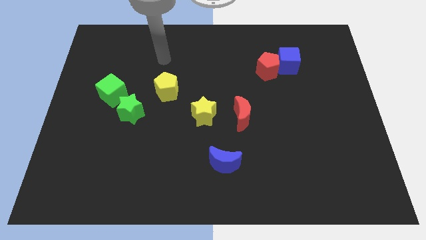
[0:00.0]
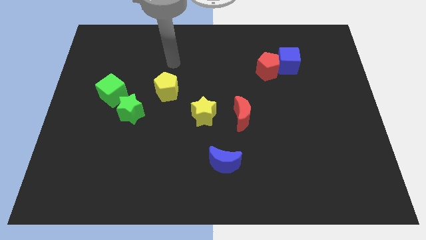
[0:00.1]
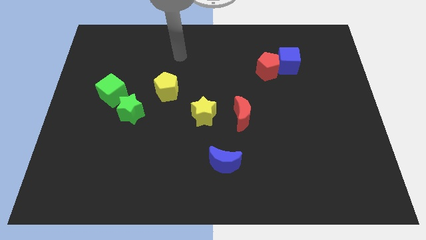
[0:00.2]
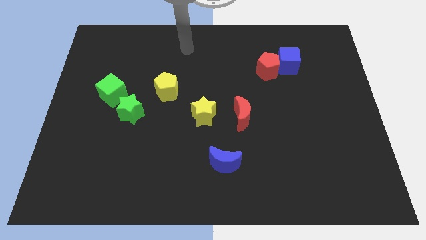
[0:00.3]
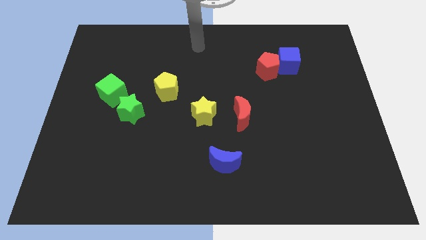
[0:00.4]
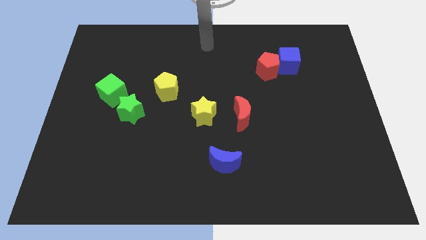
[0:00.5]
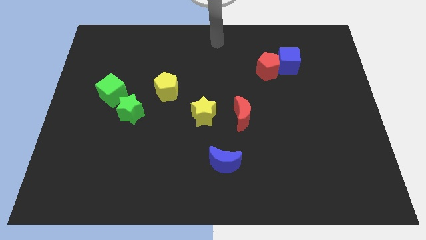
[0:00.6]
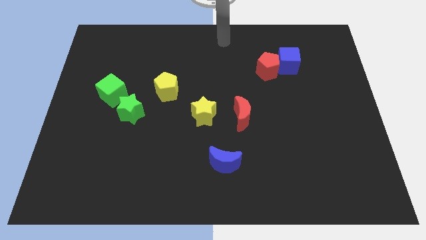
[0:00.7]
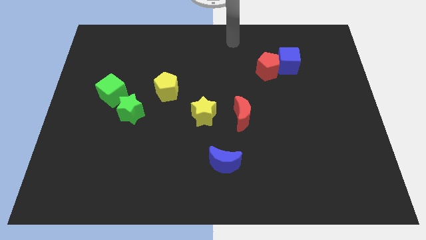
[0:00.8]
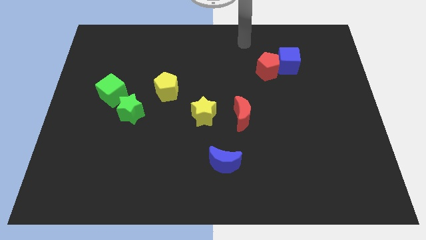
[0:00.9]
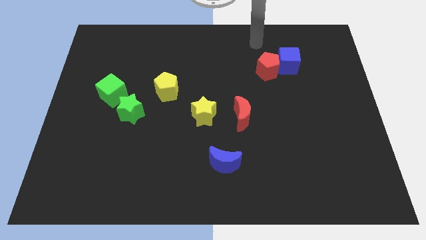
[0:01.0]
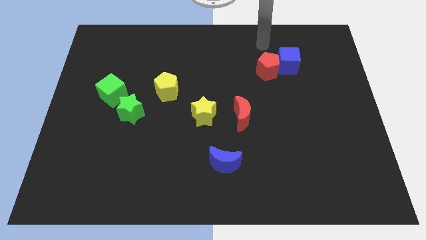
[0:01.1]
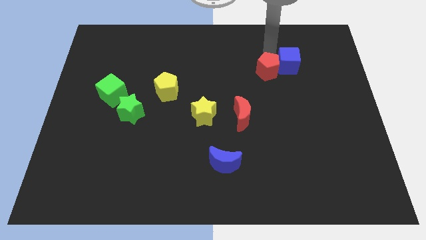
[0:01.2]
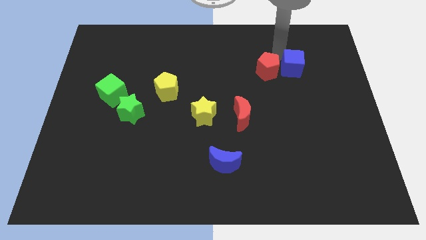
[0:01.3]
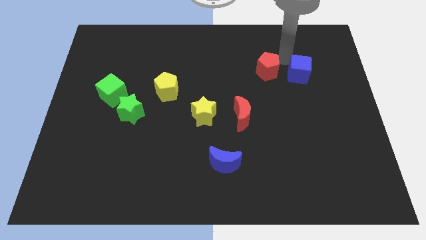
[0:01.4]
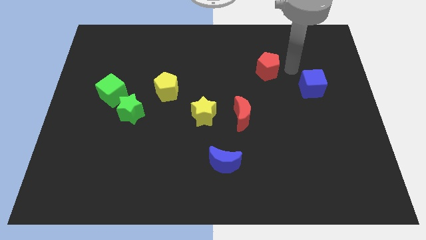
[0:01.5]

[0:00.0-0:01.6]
pull the red pentagon apart from the blue cube

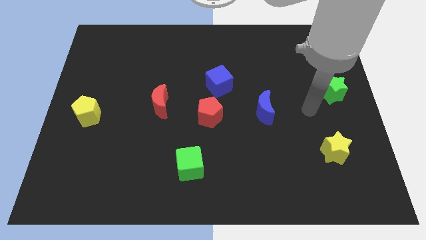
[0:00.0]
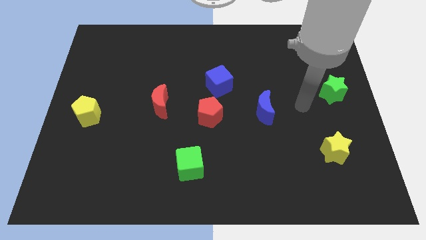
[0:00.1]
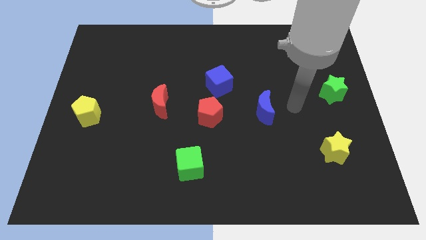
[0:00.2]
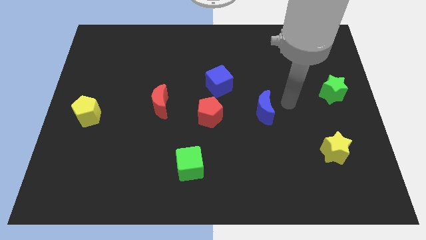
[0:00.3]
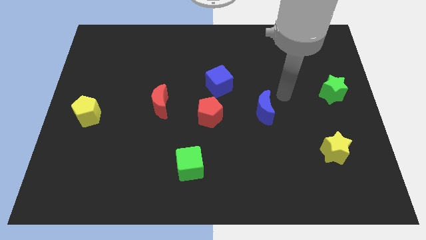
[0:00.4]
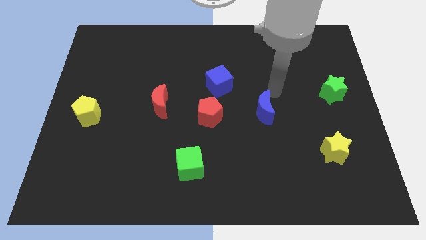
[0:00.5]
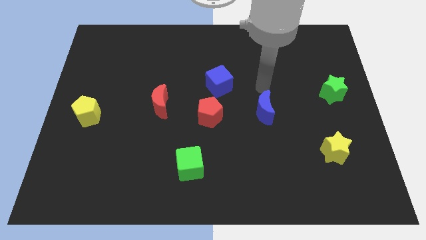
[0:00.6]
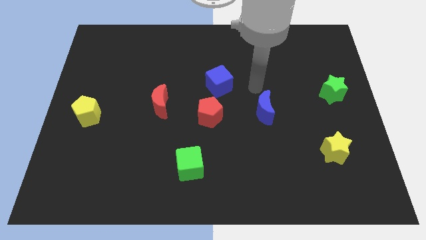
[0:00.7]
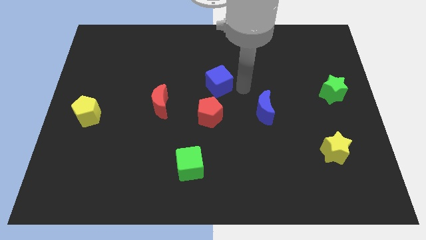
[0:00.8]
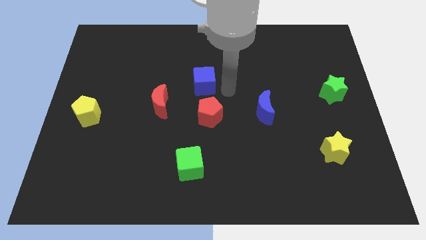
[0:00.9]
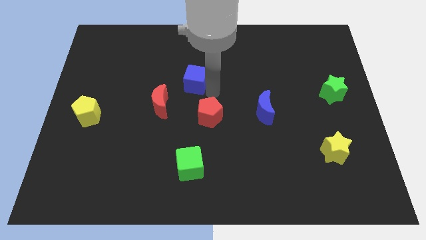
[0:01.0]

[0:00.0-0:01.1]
separate the red pentagon from the blue cube

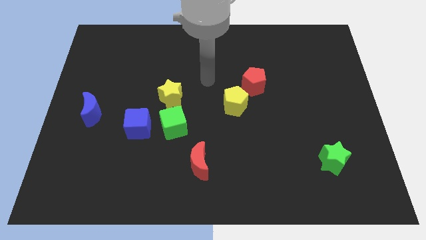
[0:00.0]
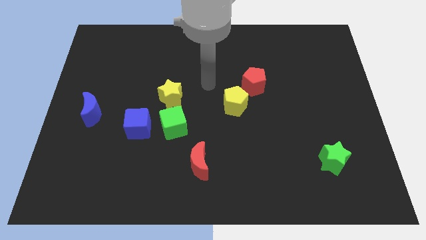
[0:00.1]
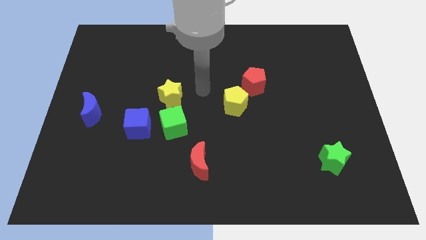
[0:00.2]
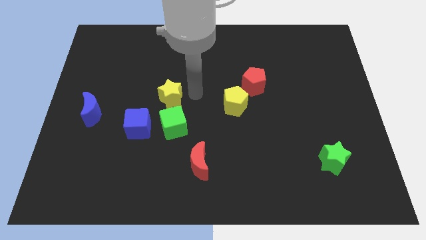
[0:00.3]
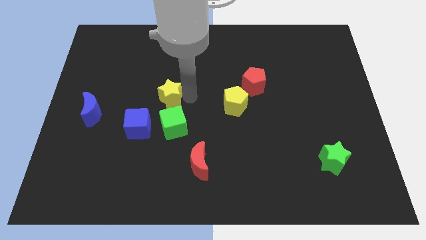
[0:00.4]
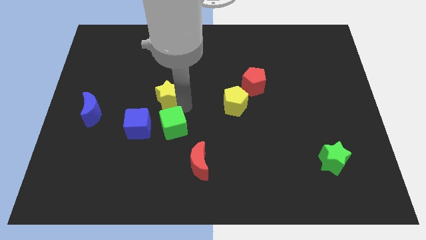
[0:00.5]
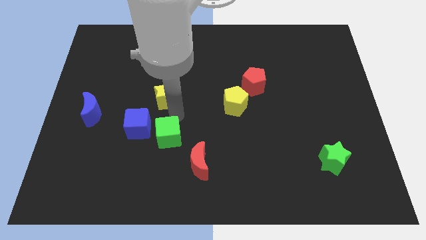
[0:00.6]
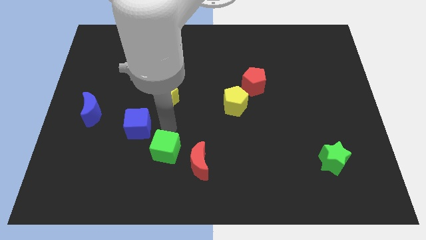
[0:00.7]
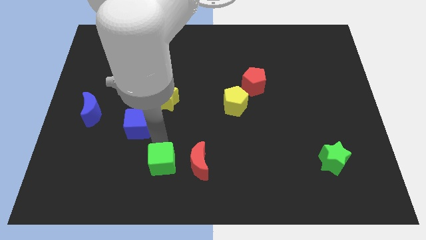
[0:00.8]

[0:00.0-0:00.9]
pull the blue cube apart from the green cube

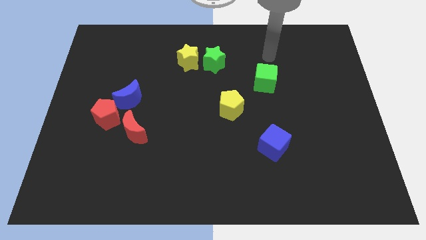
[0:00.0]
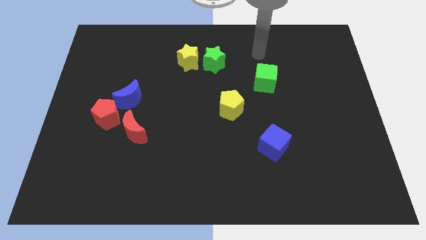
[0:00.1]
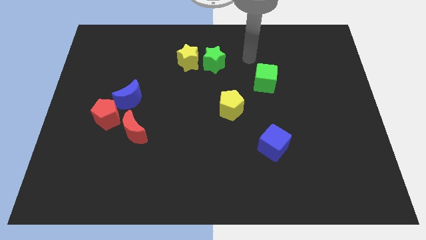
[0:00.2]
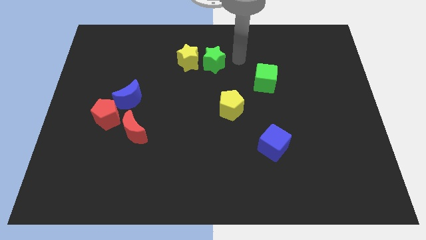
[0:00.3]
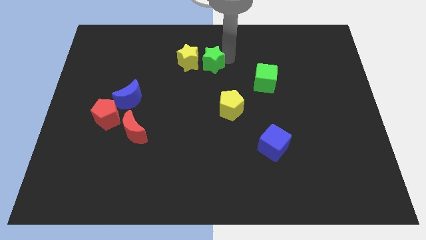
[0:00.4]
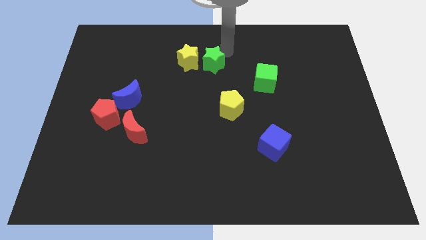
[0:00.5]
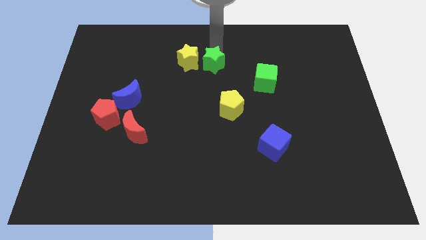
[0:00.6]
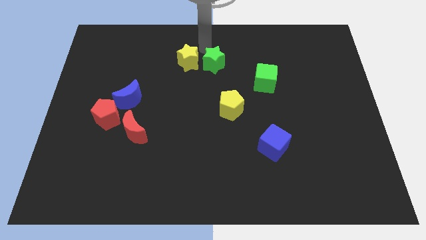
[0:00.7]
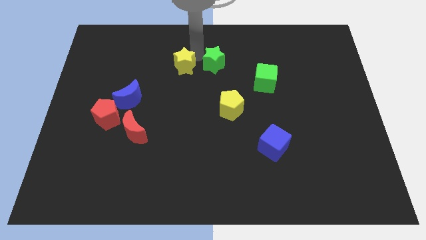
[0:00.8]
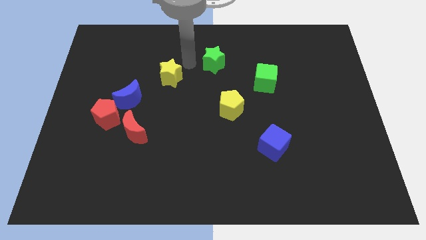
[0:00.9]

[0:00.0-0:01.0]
pull the green star apart from the yellow star

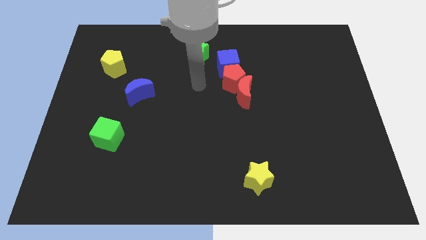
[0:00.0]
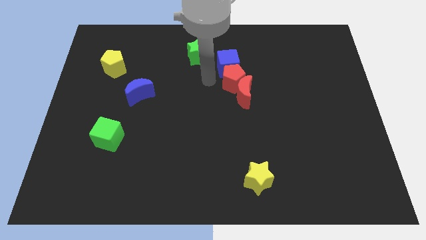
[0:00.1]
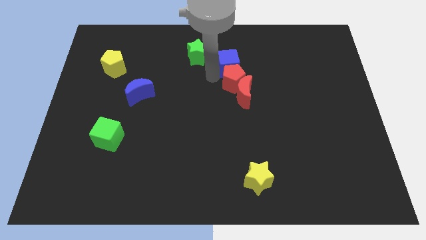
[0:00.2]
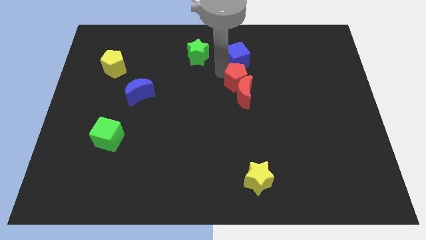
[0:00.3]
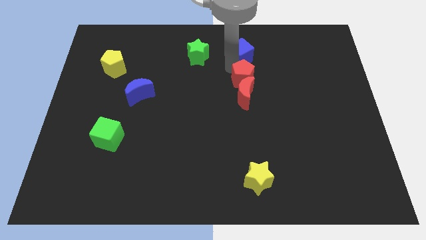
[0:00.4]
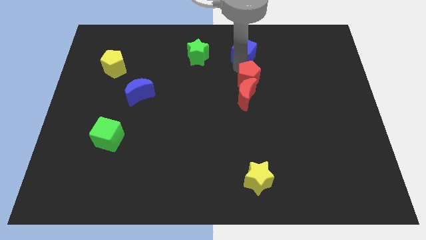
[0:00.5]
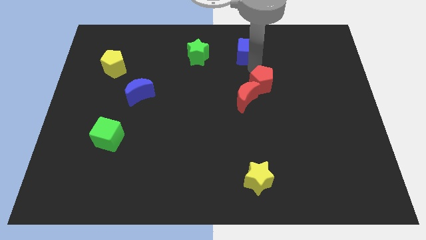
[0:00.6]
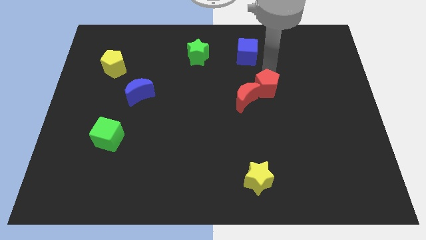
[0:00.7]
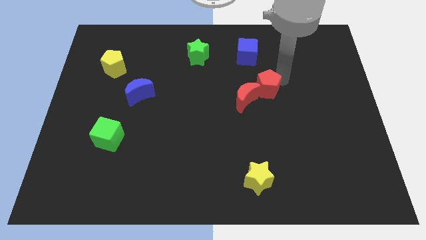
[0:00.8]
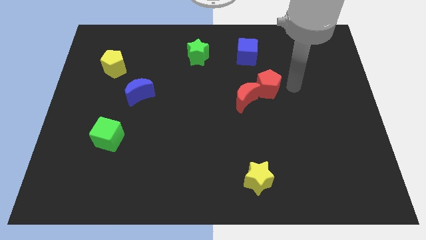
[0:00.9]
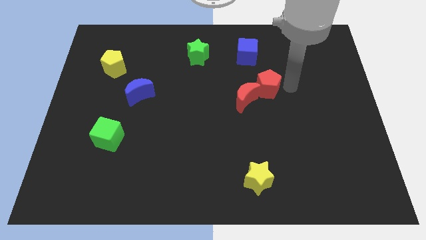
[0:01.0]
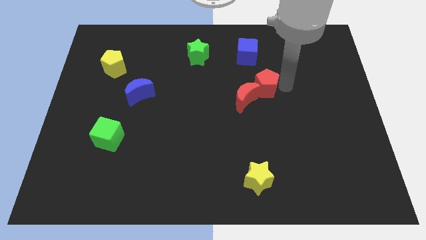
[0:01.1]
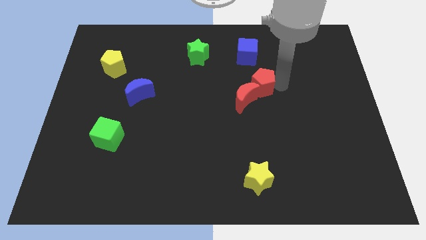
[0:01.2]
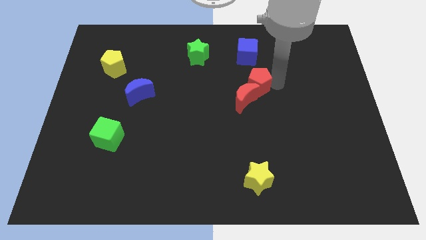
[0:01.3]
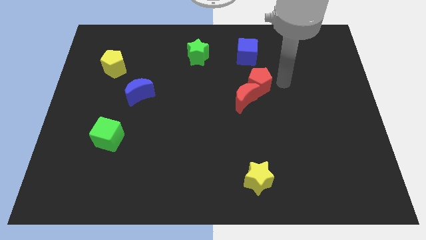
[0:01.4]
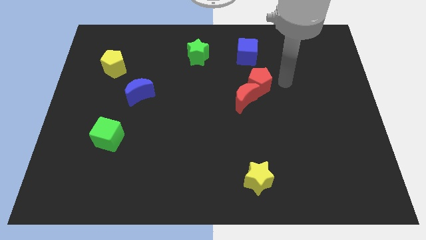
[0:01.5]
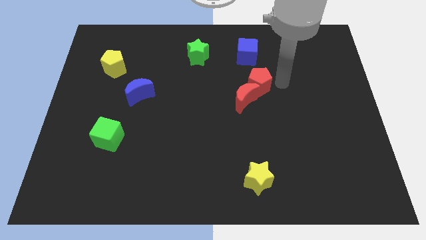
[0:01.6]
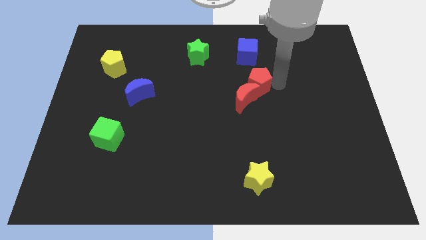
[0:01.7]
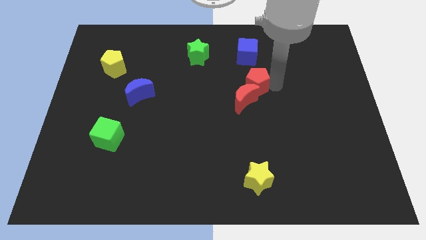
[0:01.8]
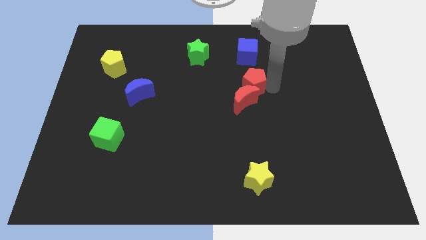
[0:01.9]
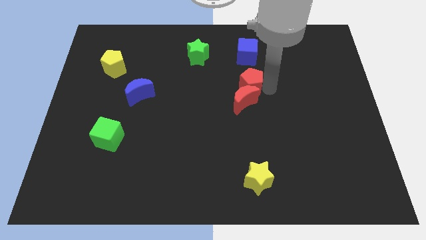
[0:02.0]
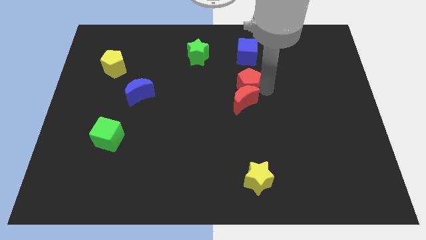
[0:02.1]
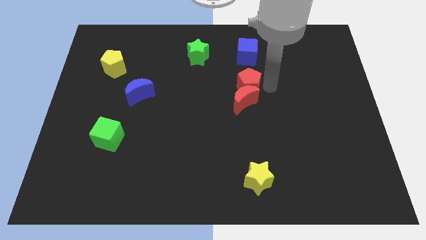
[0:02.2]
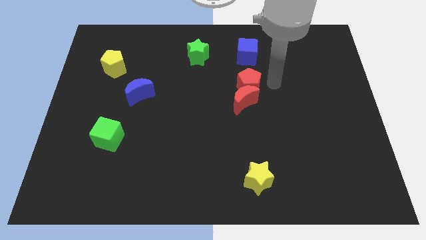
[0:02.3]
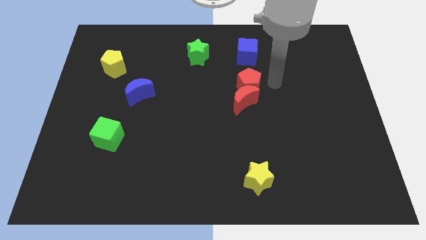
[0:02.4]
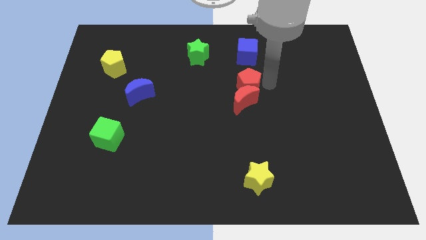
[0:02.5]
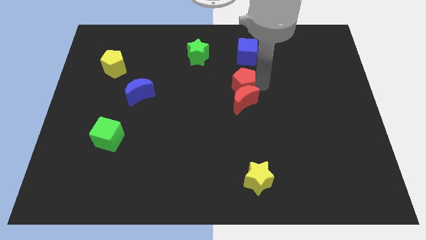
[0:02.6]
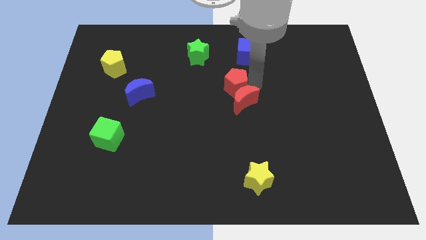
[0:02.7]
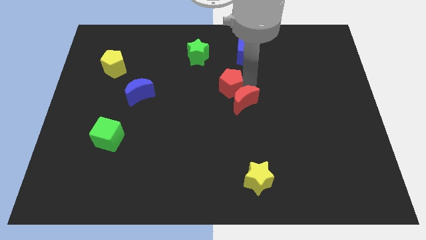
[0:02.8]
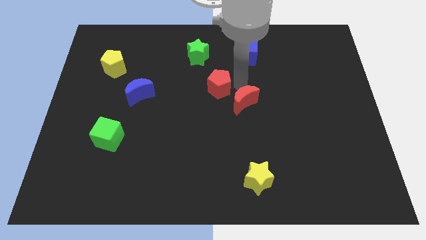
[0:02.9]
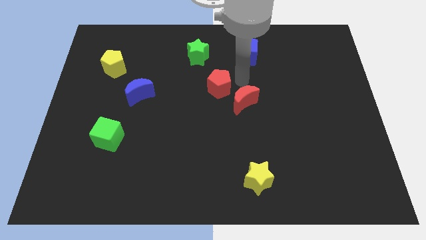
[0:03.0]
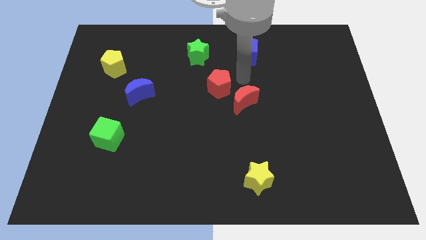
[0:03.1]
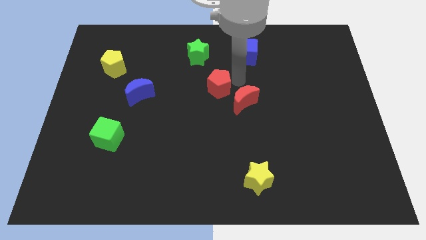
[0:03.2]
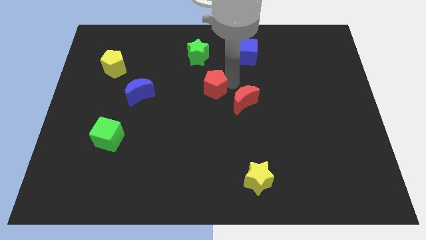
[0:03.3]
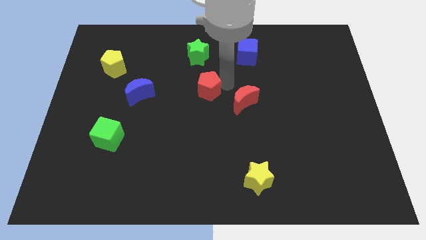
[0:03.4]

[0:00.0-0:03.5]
separate the red pentagon from the red moon and blue cube

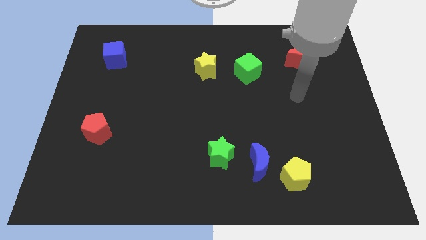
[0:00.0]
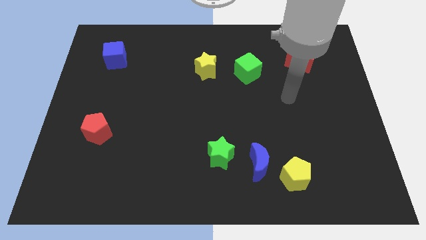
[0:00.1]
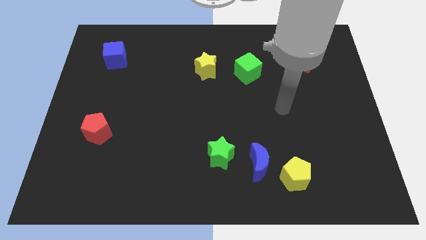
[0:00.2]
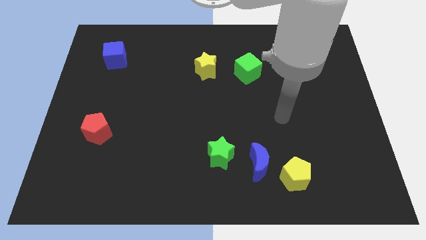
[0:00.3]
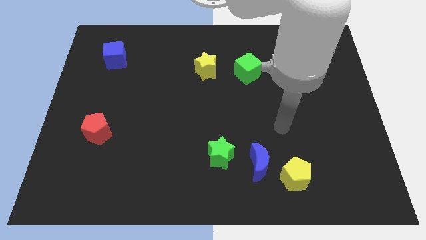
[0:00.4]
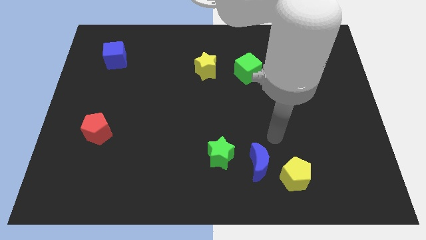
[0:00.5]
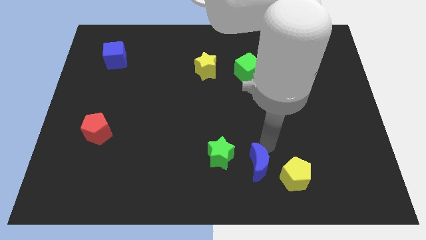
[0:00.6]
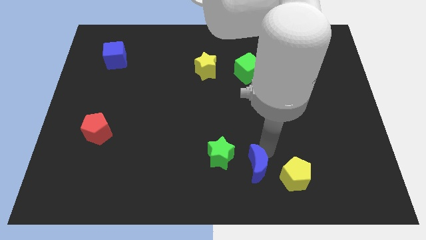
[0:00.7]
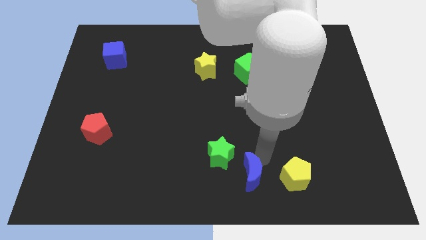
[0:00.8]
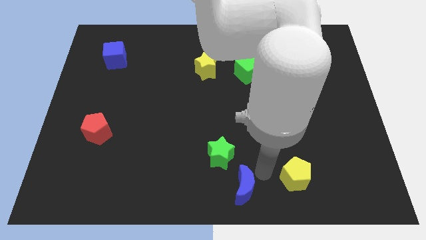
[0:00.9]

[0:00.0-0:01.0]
pull the yellow pentagon apart from the blue moon

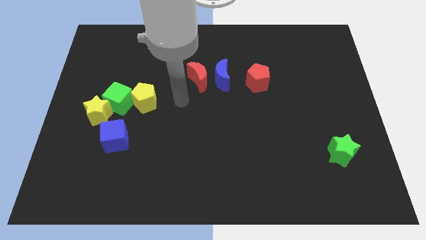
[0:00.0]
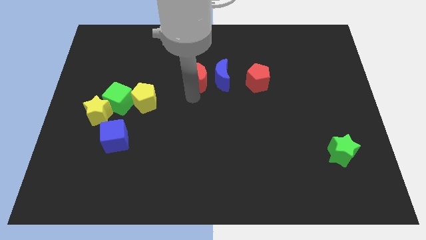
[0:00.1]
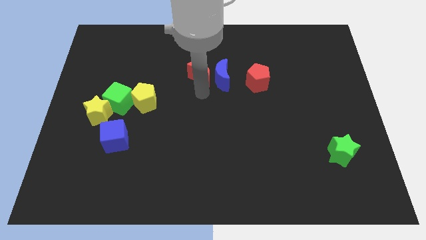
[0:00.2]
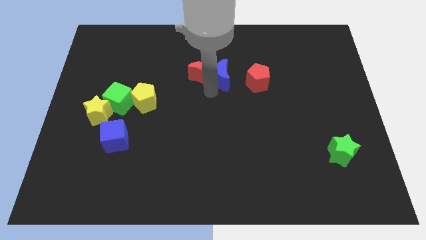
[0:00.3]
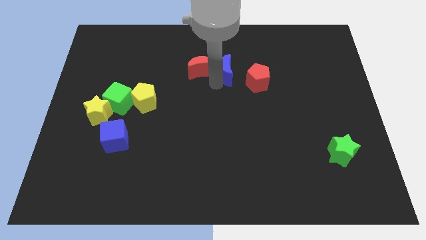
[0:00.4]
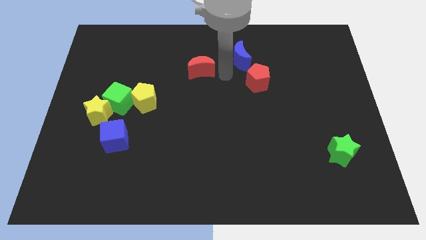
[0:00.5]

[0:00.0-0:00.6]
separate the red moon from the blue moon
